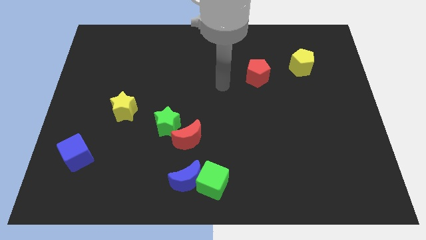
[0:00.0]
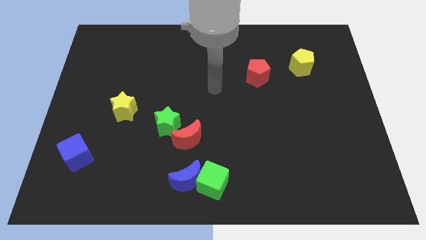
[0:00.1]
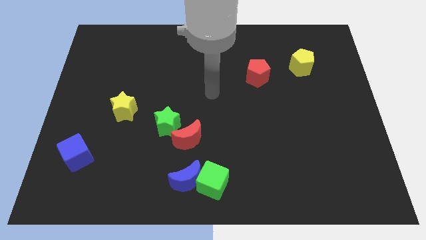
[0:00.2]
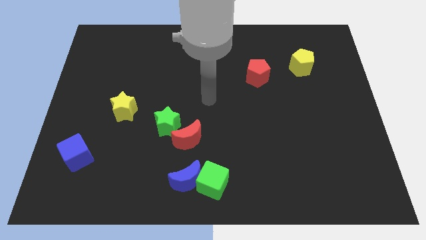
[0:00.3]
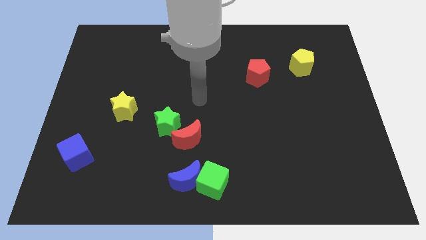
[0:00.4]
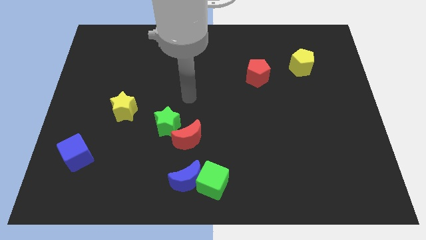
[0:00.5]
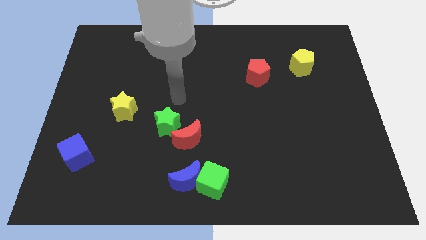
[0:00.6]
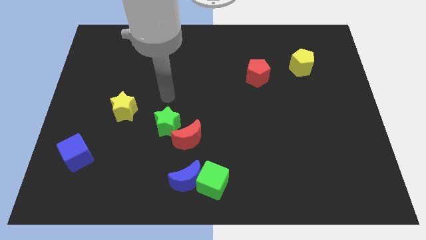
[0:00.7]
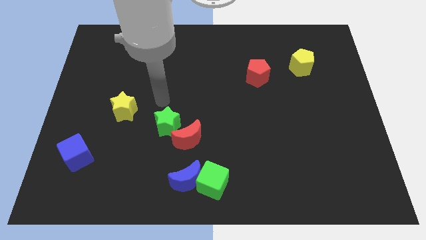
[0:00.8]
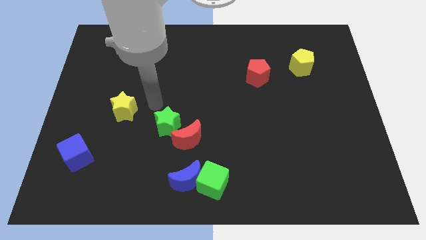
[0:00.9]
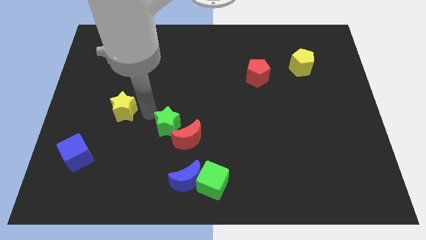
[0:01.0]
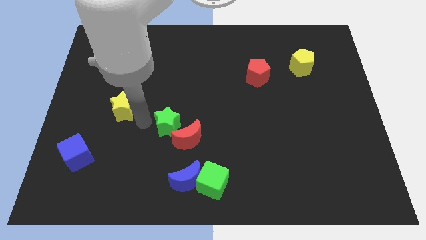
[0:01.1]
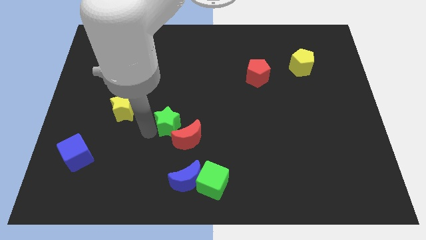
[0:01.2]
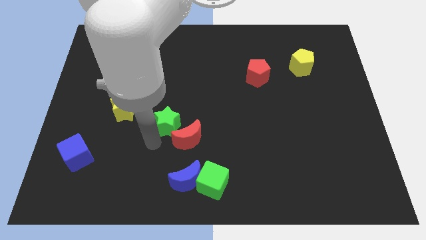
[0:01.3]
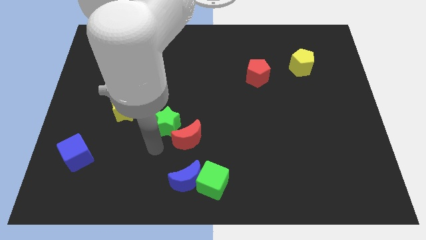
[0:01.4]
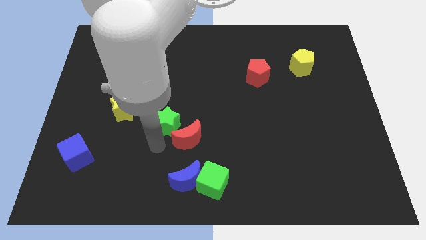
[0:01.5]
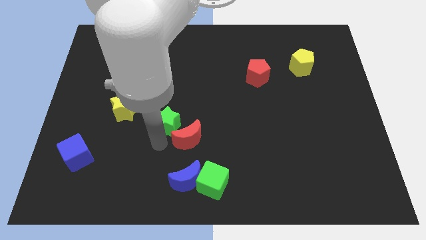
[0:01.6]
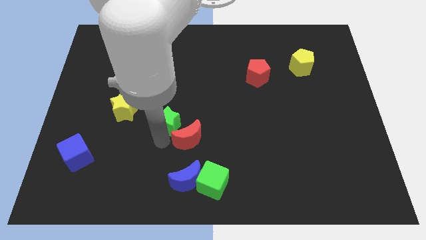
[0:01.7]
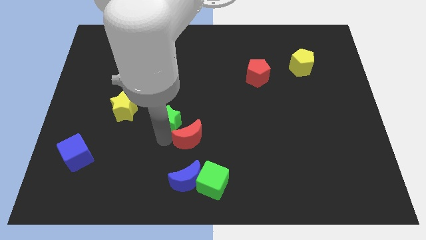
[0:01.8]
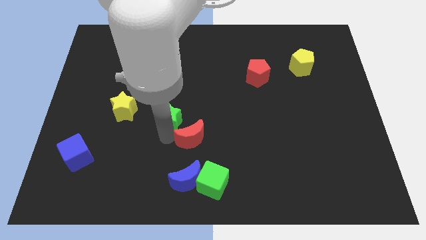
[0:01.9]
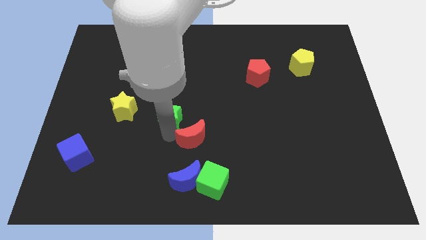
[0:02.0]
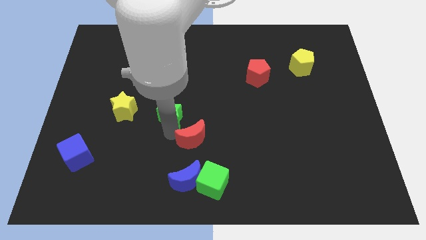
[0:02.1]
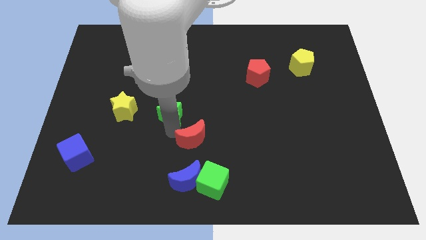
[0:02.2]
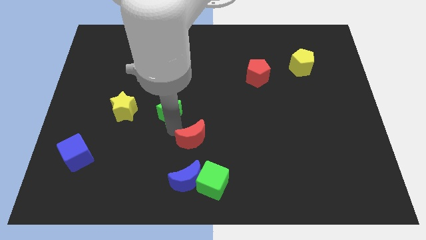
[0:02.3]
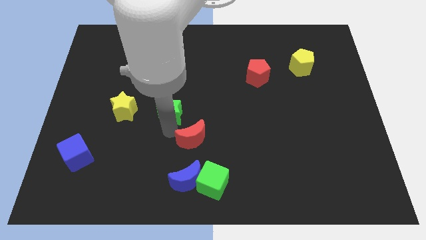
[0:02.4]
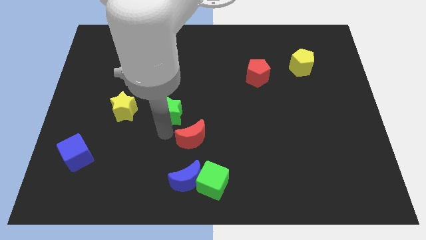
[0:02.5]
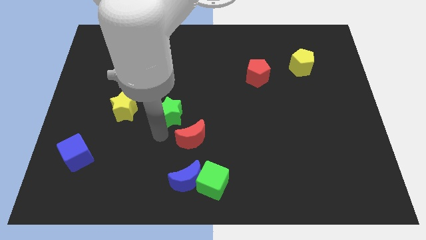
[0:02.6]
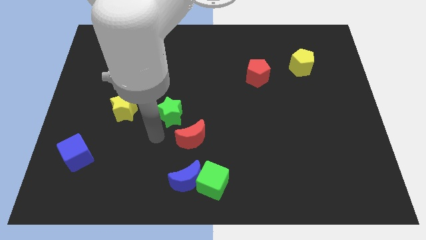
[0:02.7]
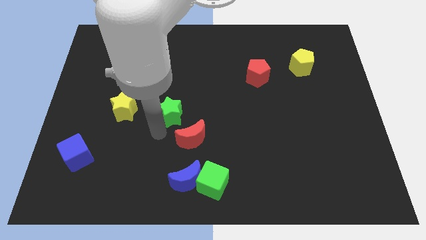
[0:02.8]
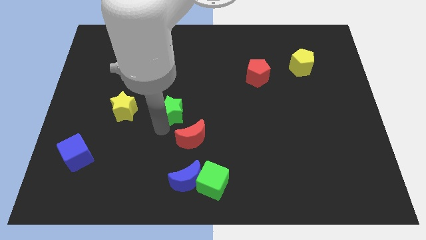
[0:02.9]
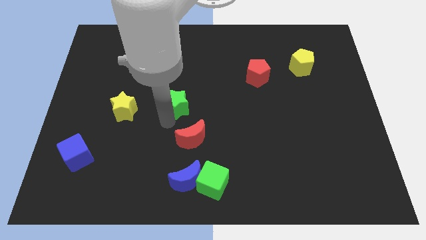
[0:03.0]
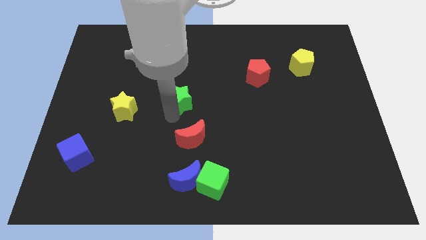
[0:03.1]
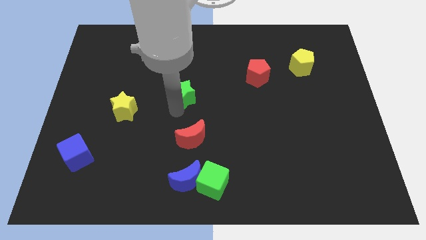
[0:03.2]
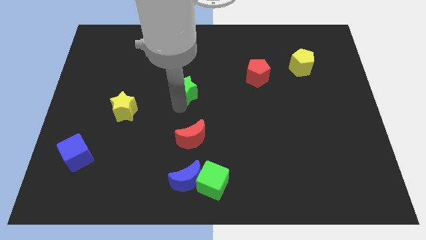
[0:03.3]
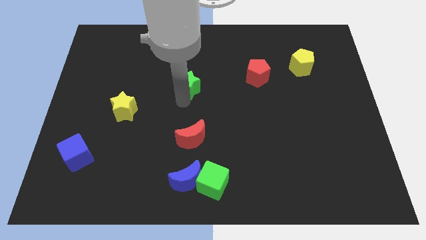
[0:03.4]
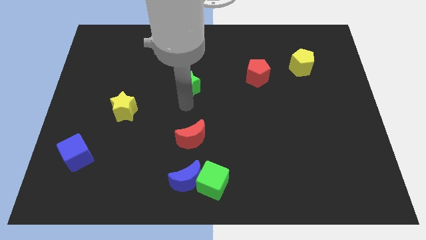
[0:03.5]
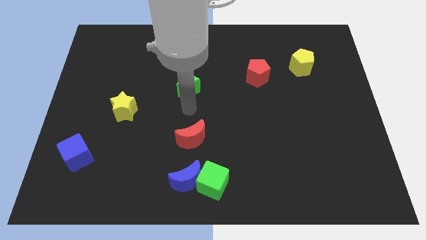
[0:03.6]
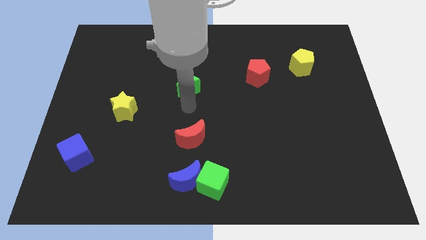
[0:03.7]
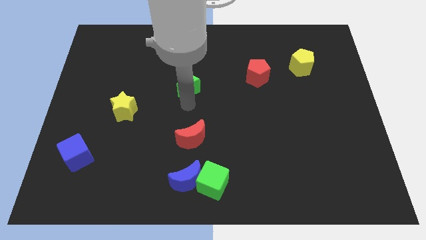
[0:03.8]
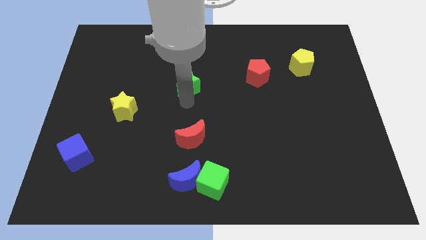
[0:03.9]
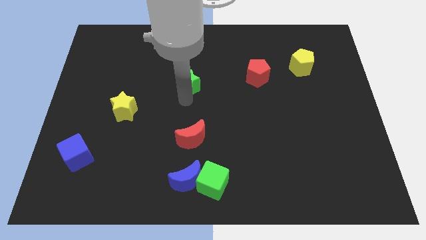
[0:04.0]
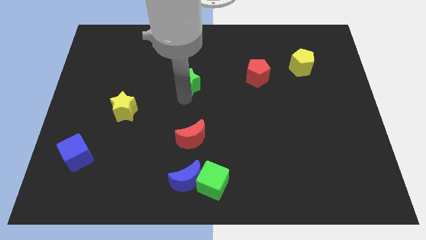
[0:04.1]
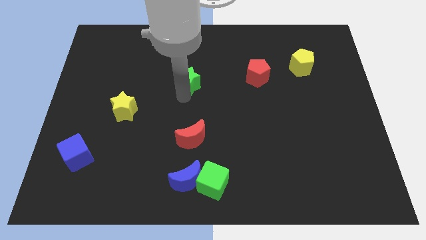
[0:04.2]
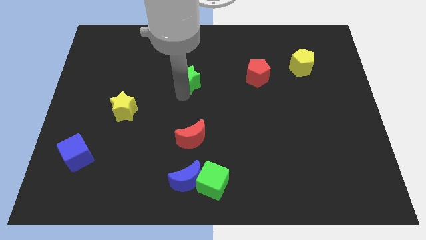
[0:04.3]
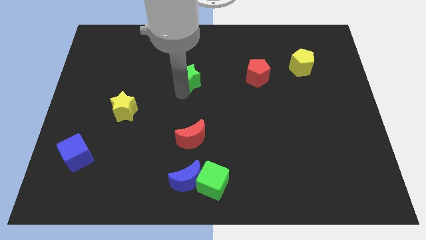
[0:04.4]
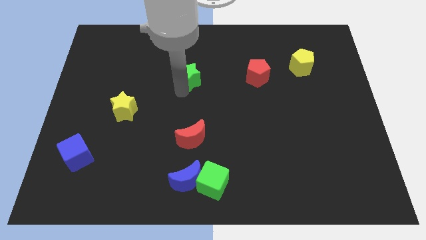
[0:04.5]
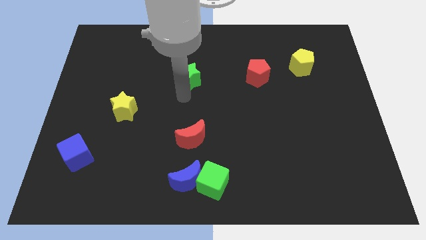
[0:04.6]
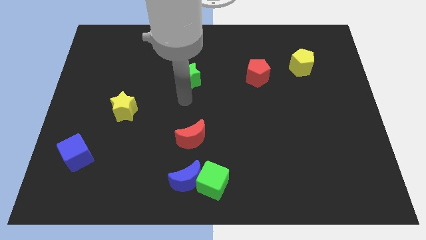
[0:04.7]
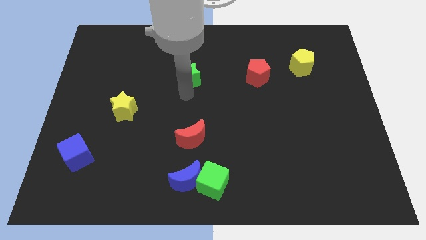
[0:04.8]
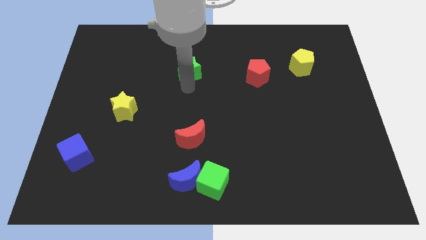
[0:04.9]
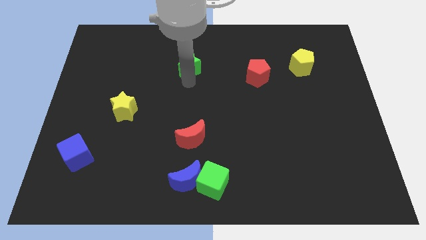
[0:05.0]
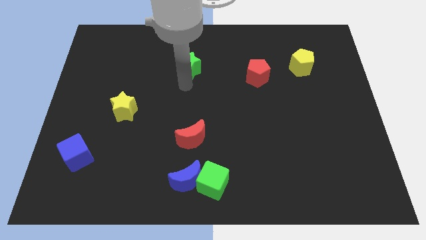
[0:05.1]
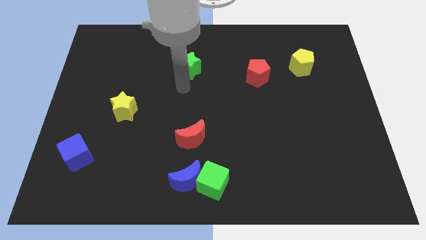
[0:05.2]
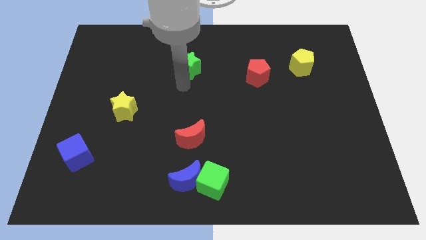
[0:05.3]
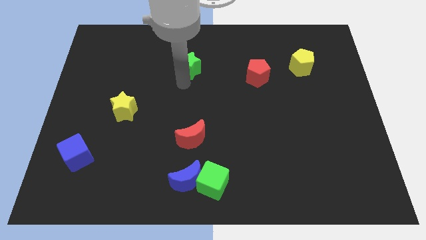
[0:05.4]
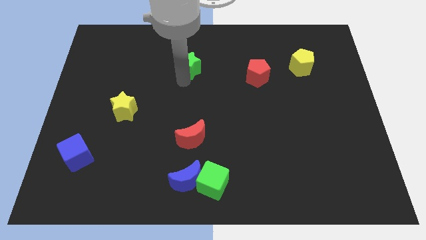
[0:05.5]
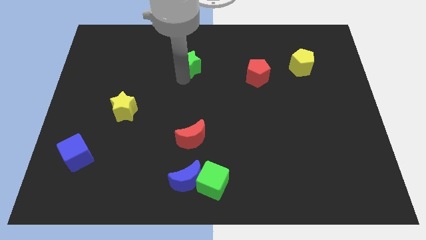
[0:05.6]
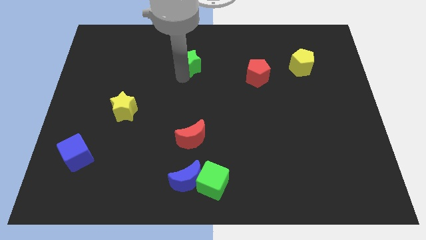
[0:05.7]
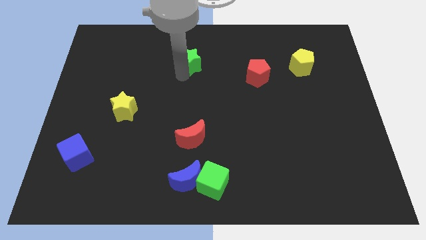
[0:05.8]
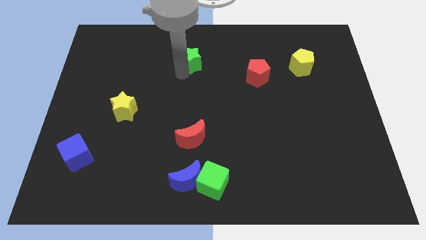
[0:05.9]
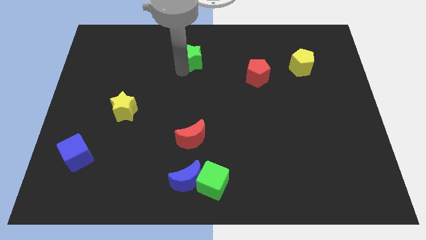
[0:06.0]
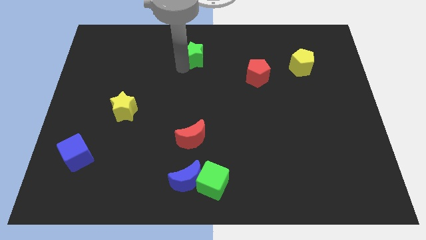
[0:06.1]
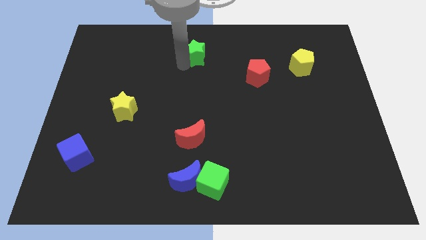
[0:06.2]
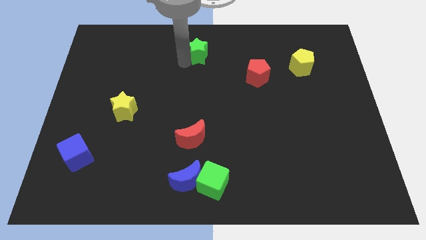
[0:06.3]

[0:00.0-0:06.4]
slide the green star to the top side
